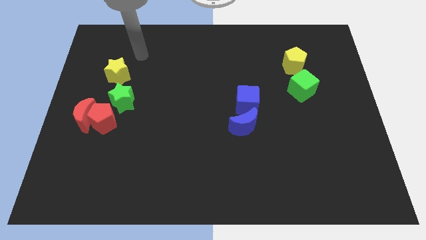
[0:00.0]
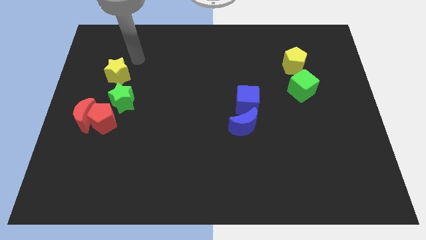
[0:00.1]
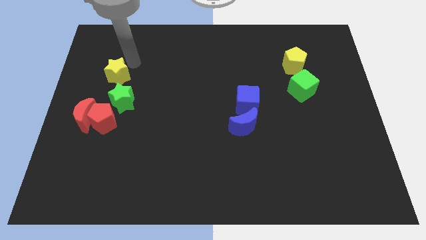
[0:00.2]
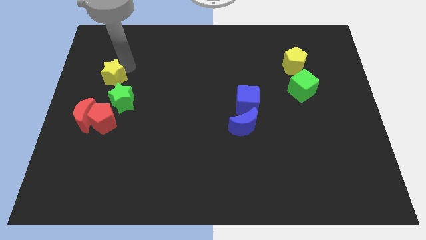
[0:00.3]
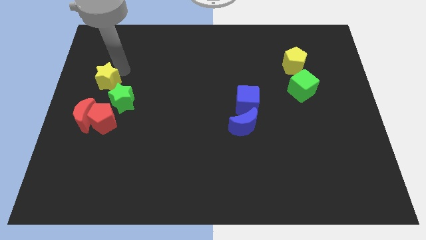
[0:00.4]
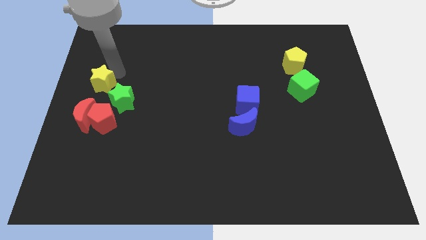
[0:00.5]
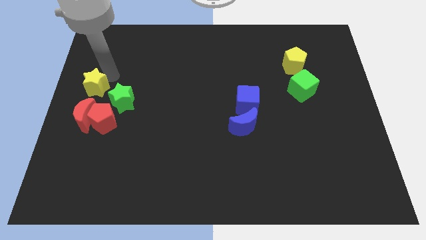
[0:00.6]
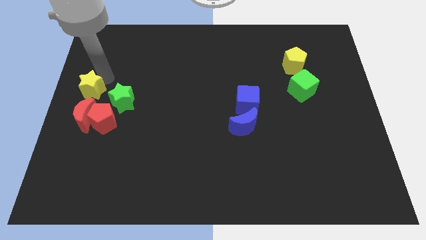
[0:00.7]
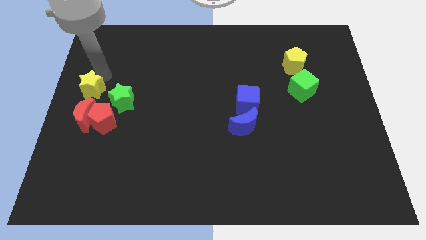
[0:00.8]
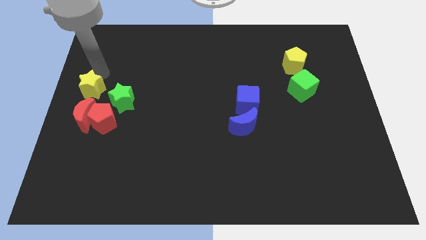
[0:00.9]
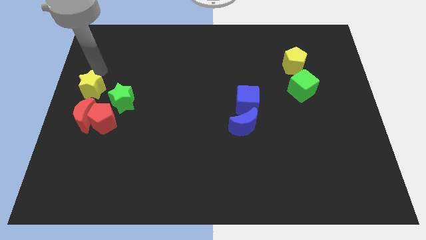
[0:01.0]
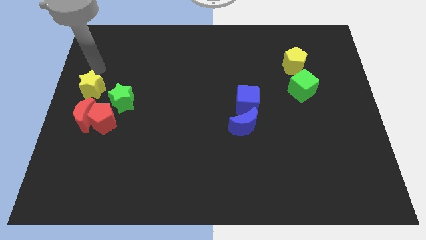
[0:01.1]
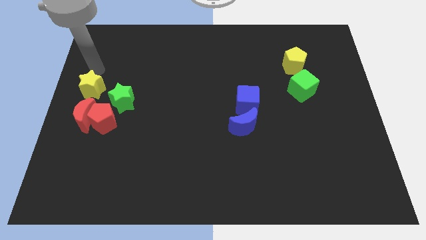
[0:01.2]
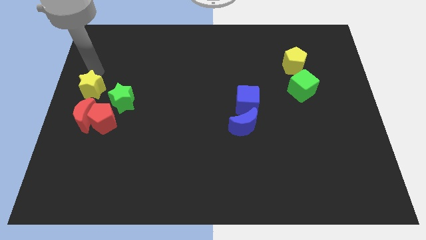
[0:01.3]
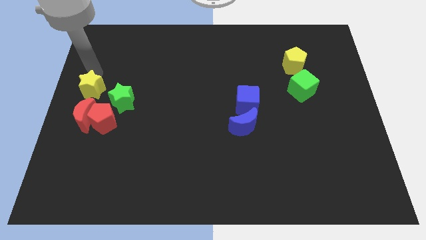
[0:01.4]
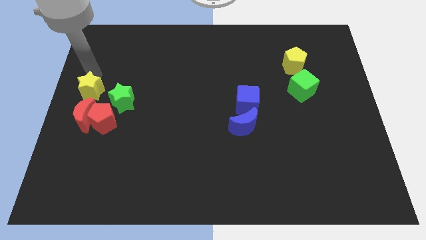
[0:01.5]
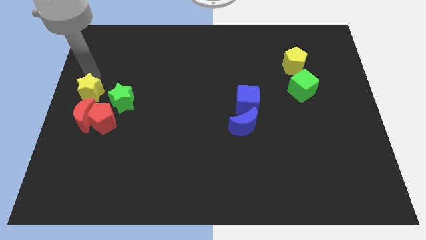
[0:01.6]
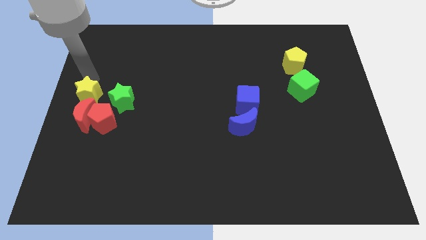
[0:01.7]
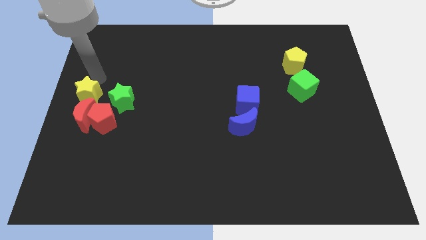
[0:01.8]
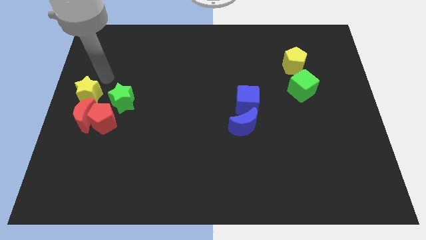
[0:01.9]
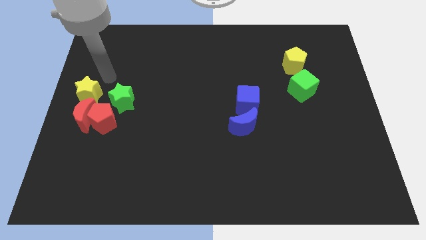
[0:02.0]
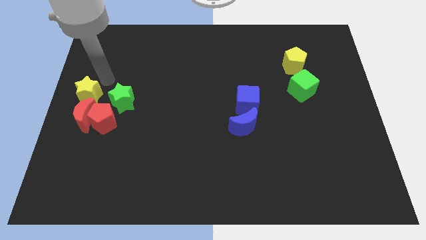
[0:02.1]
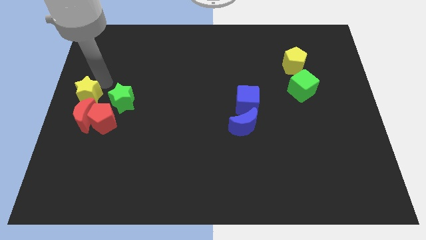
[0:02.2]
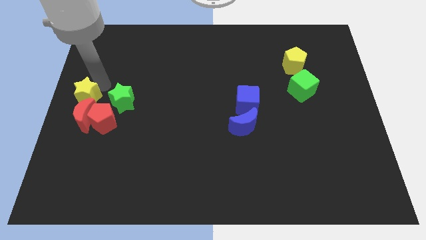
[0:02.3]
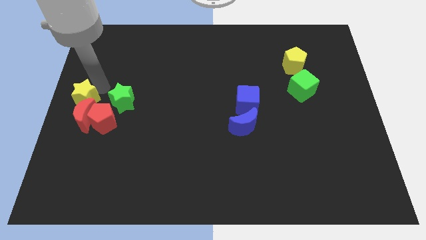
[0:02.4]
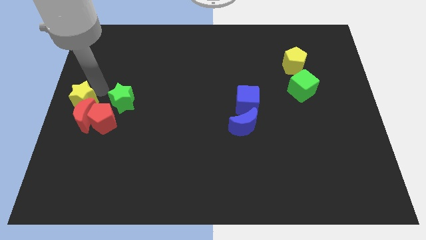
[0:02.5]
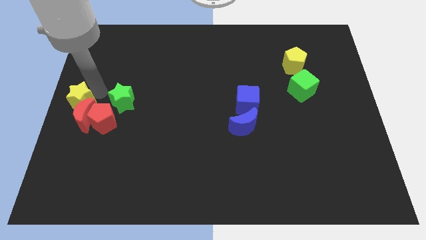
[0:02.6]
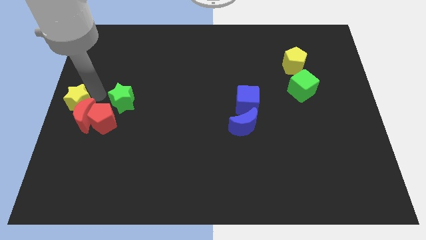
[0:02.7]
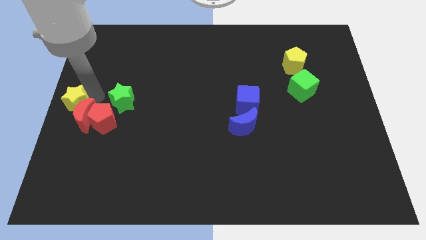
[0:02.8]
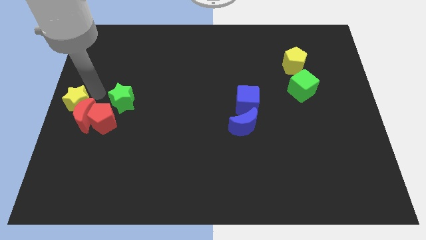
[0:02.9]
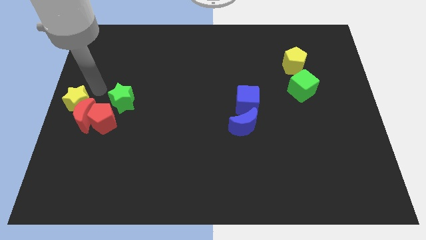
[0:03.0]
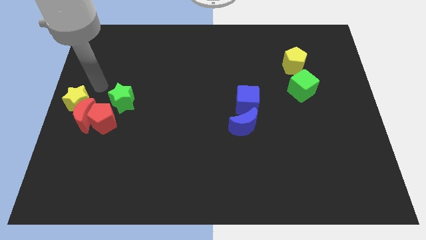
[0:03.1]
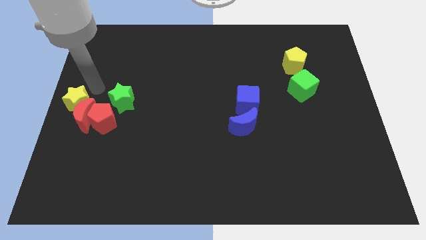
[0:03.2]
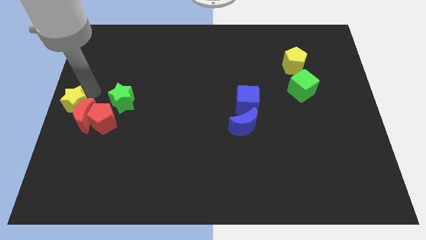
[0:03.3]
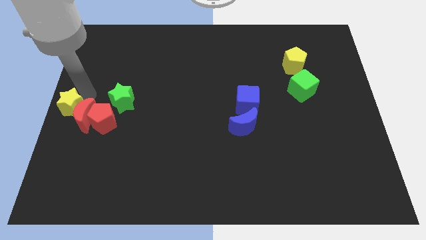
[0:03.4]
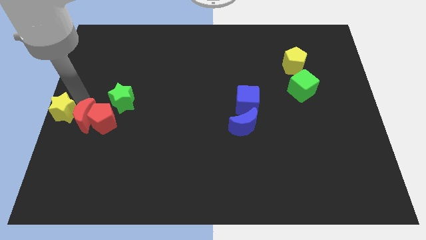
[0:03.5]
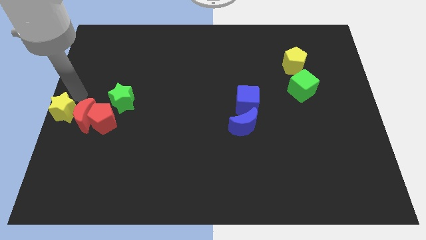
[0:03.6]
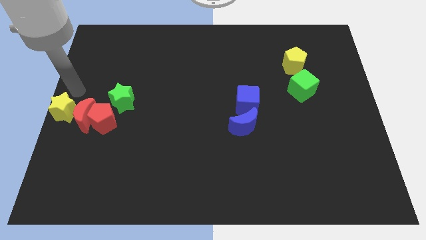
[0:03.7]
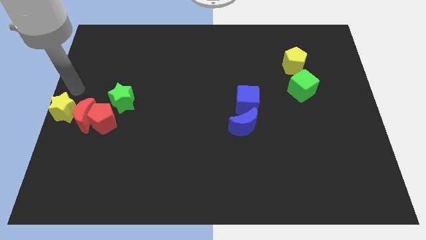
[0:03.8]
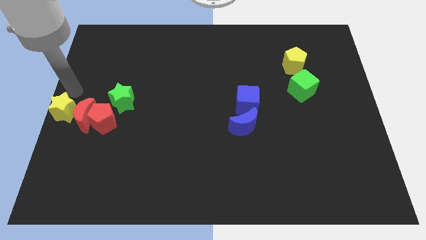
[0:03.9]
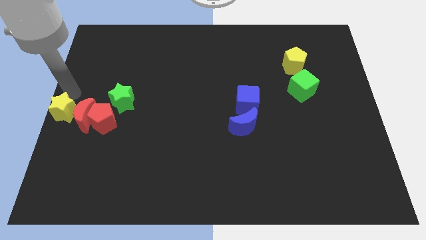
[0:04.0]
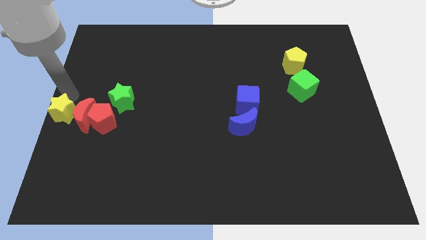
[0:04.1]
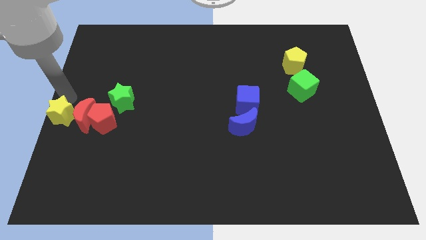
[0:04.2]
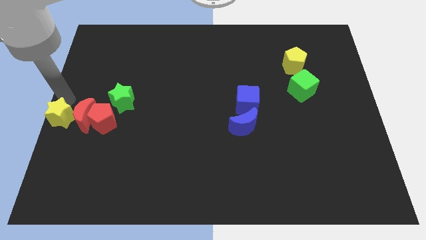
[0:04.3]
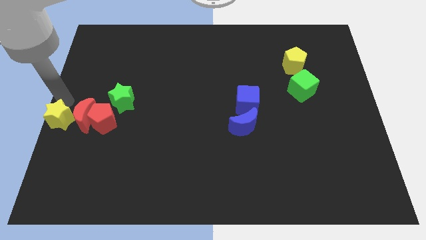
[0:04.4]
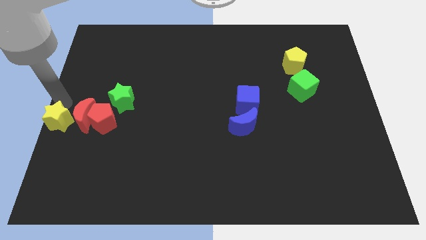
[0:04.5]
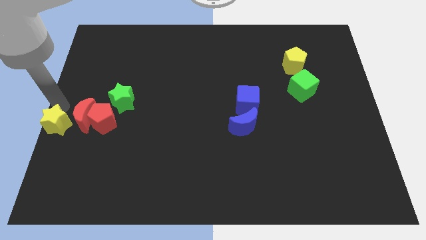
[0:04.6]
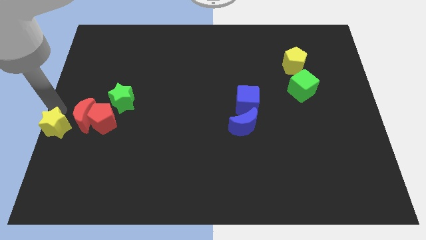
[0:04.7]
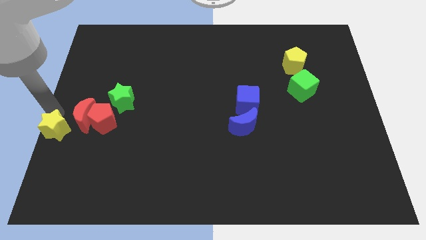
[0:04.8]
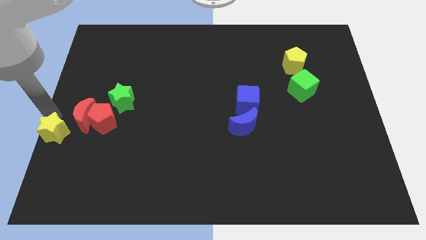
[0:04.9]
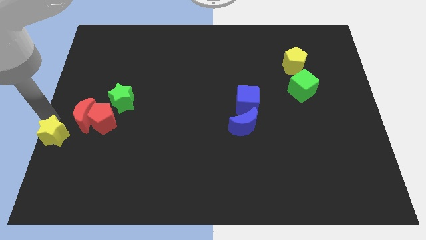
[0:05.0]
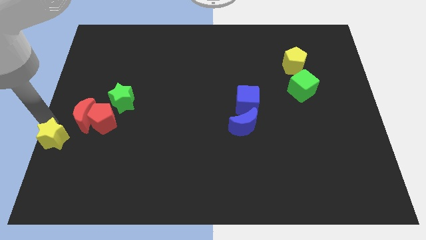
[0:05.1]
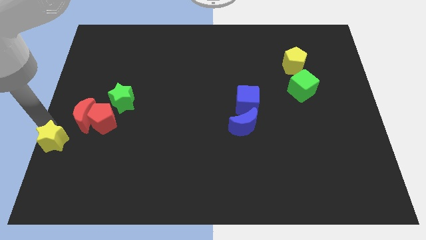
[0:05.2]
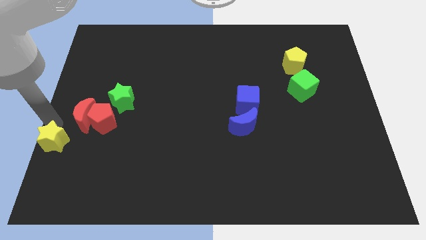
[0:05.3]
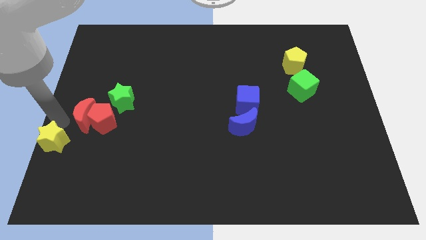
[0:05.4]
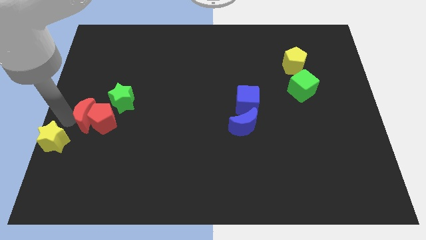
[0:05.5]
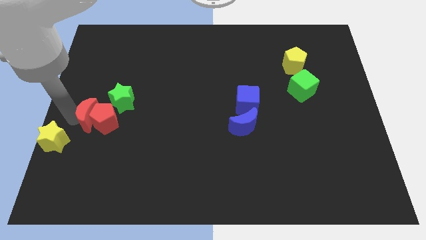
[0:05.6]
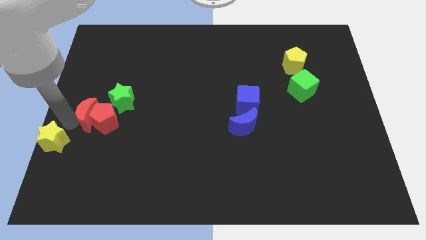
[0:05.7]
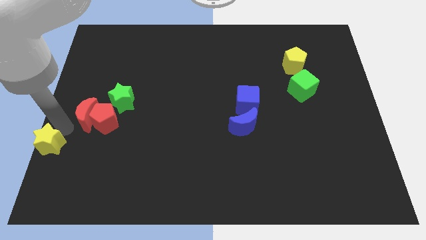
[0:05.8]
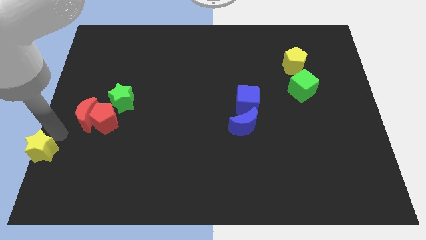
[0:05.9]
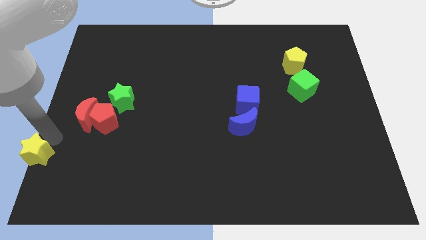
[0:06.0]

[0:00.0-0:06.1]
push the yellow star to the bottom left
